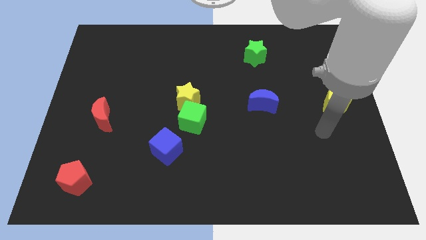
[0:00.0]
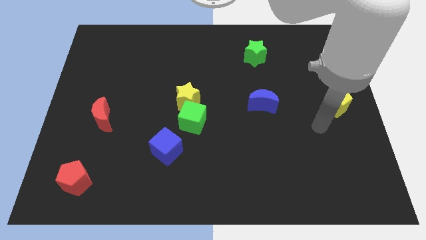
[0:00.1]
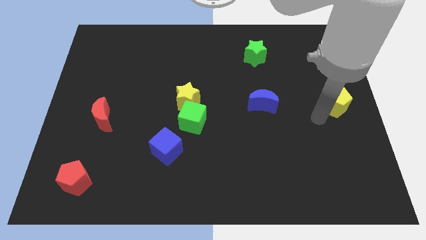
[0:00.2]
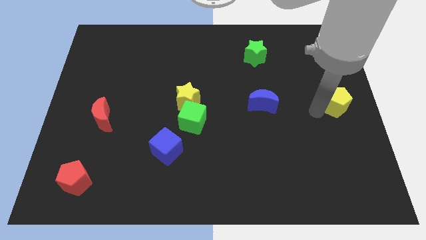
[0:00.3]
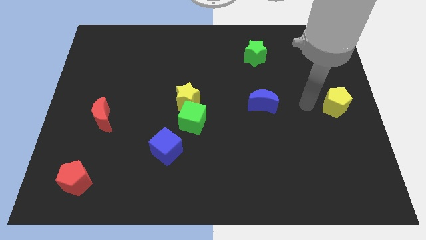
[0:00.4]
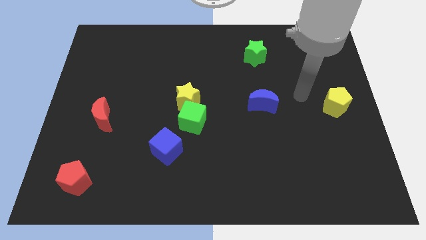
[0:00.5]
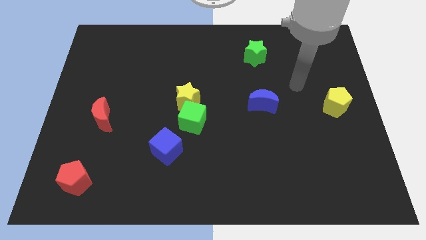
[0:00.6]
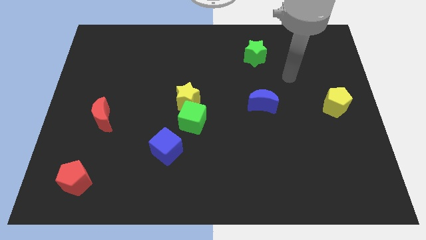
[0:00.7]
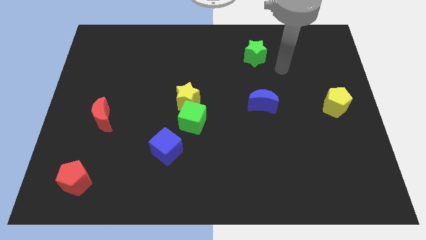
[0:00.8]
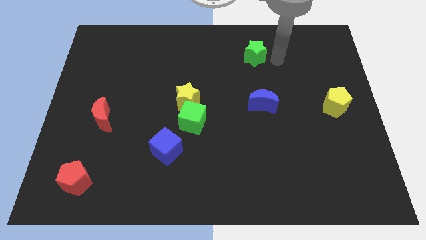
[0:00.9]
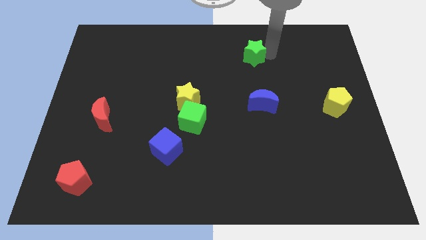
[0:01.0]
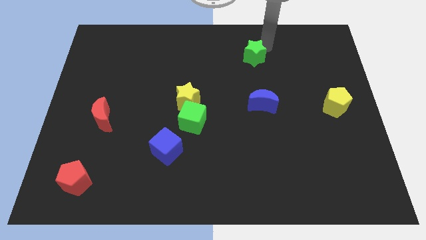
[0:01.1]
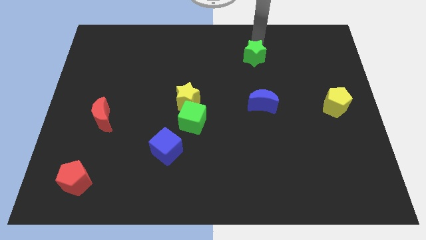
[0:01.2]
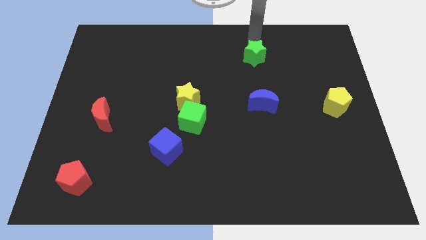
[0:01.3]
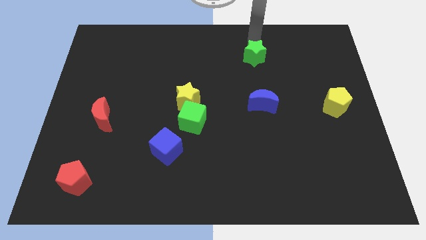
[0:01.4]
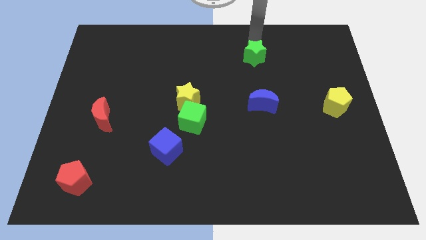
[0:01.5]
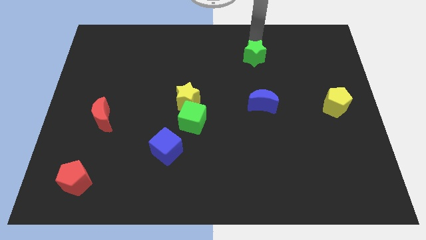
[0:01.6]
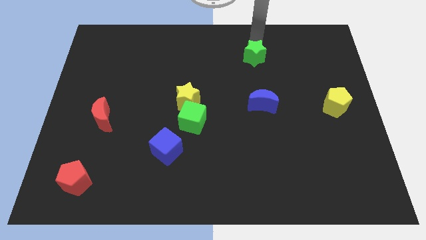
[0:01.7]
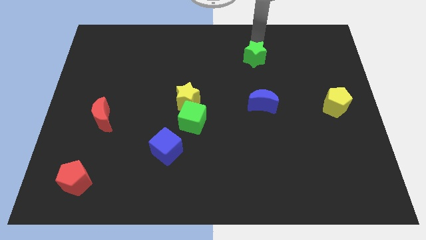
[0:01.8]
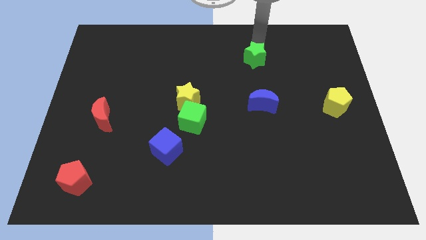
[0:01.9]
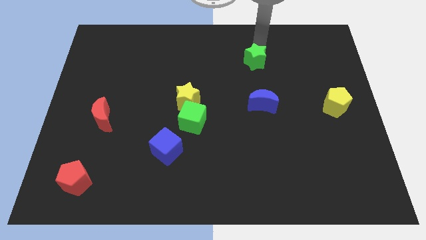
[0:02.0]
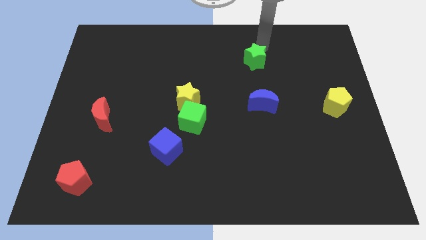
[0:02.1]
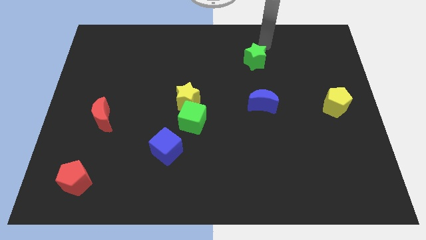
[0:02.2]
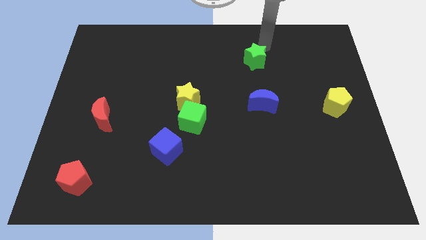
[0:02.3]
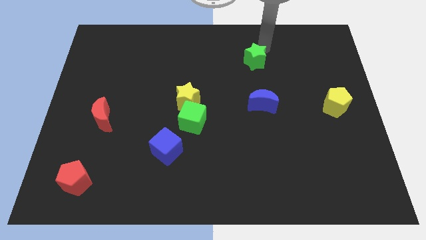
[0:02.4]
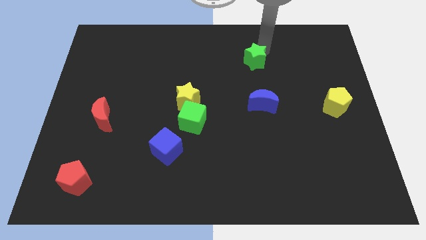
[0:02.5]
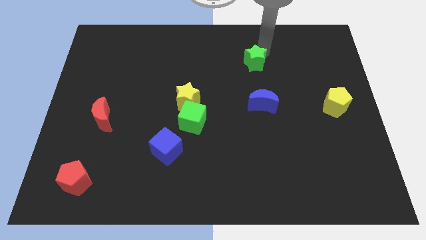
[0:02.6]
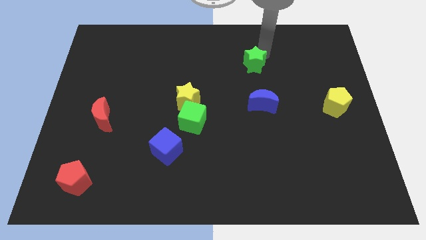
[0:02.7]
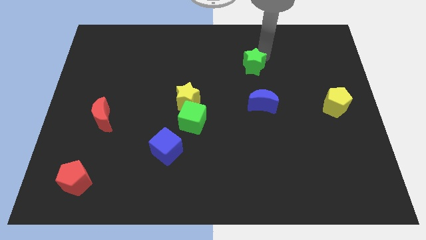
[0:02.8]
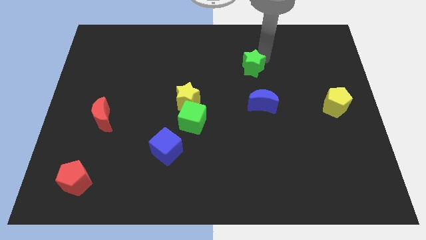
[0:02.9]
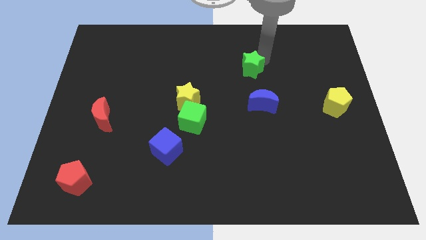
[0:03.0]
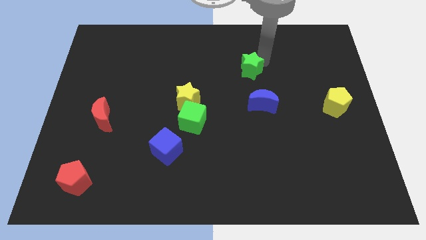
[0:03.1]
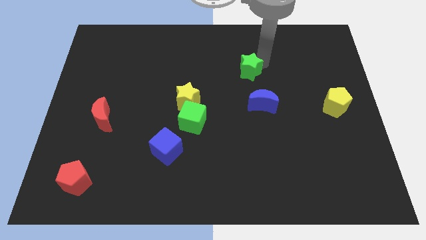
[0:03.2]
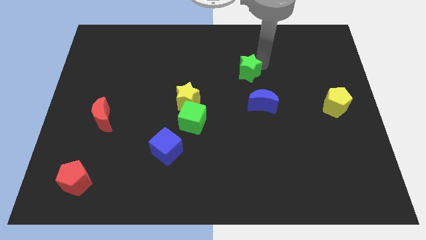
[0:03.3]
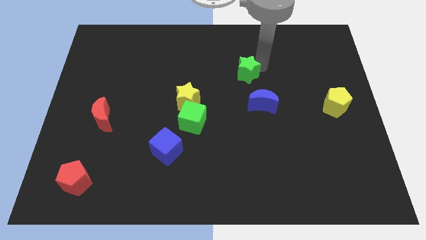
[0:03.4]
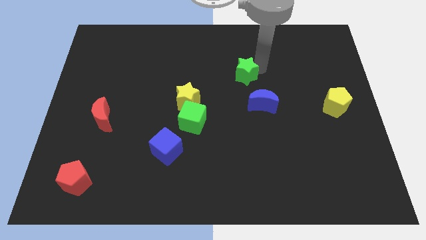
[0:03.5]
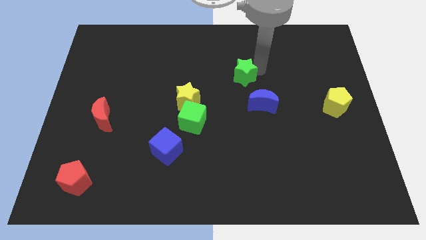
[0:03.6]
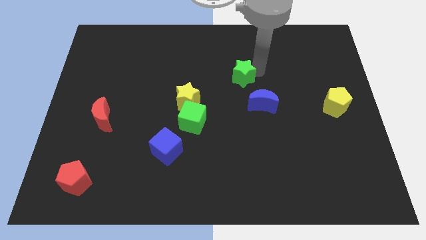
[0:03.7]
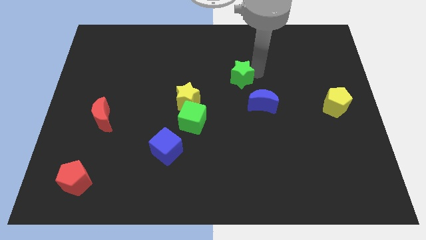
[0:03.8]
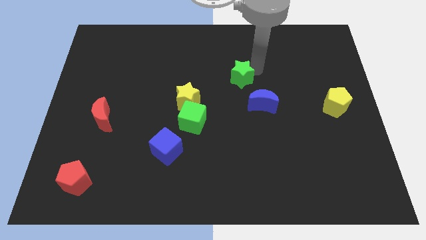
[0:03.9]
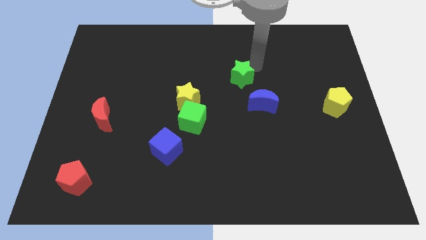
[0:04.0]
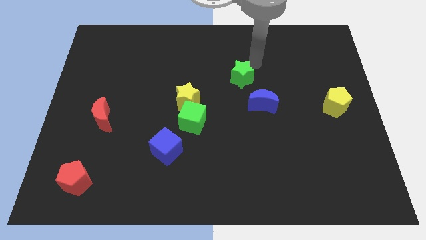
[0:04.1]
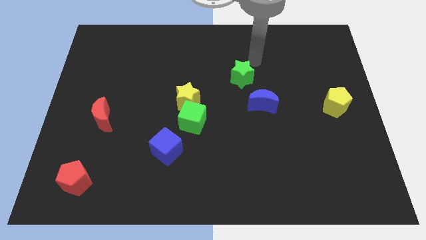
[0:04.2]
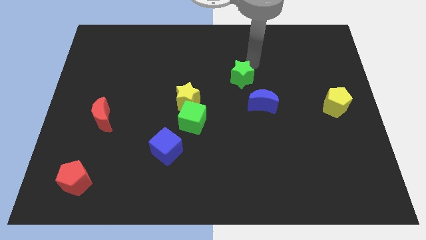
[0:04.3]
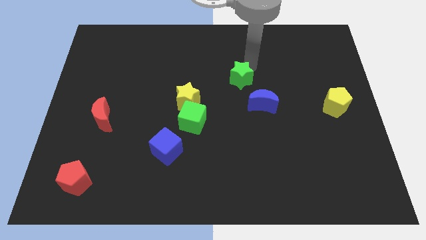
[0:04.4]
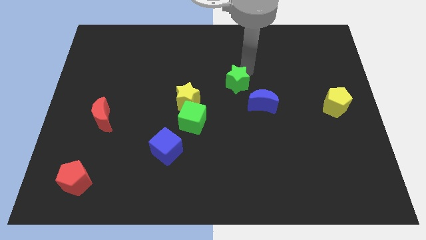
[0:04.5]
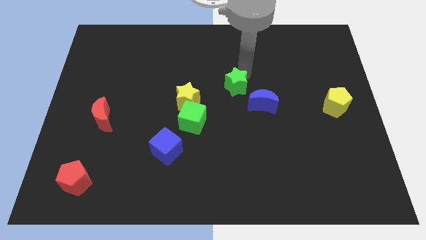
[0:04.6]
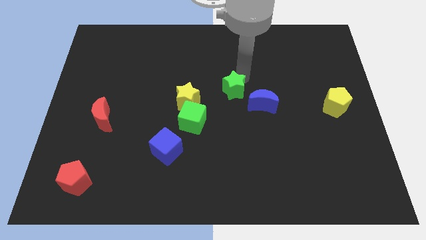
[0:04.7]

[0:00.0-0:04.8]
move the green star to the left of the blue moon

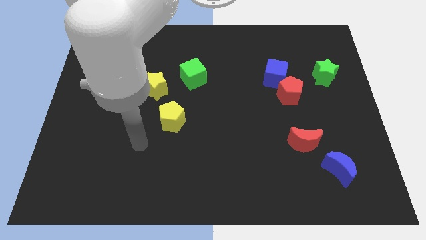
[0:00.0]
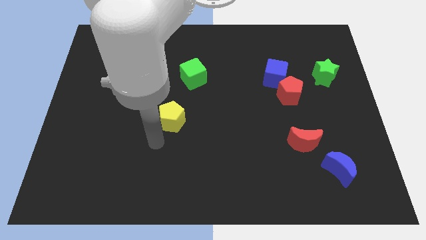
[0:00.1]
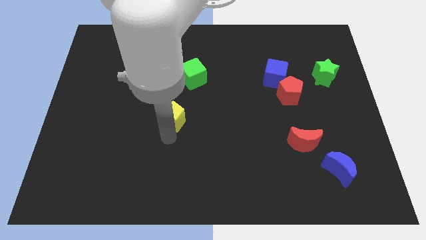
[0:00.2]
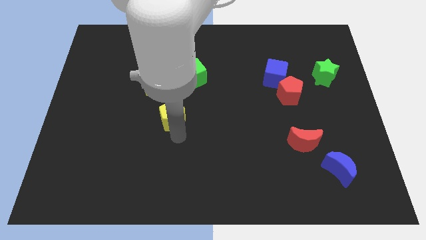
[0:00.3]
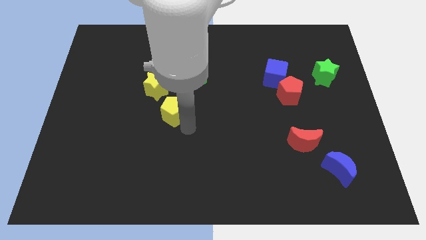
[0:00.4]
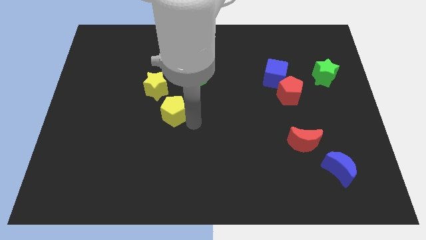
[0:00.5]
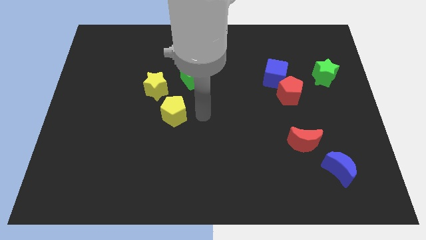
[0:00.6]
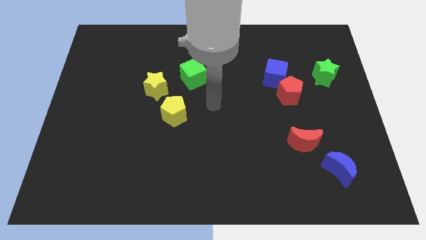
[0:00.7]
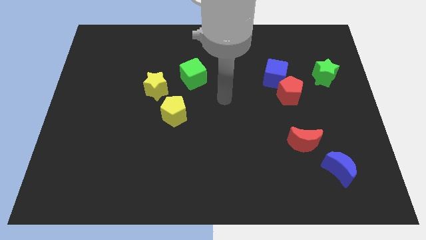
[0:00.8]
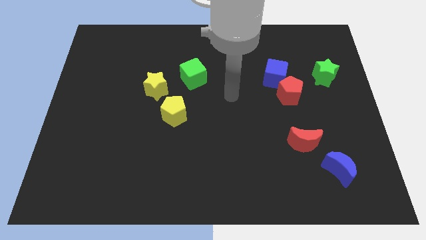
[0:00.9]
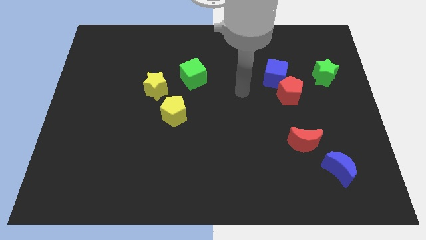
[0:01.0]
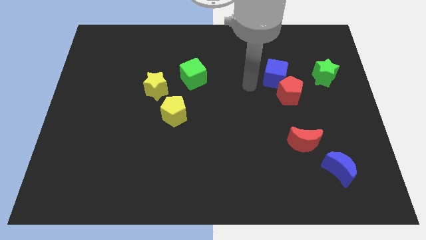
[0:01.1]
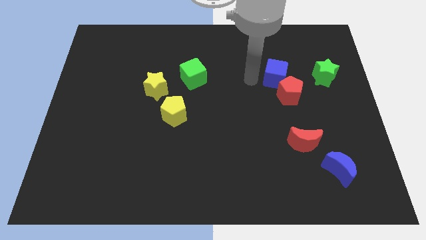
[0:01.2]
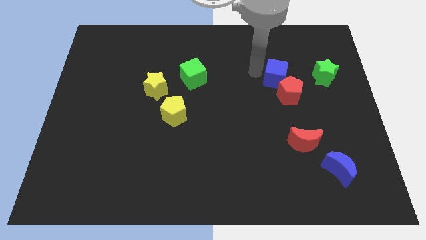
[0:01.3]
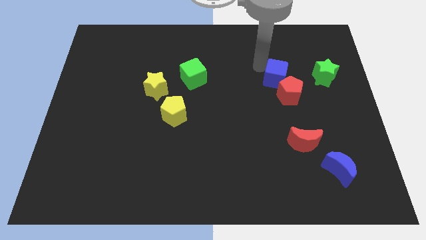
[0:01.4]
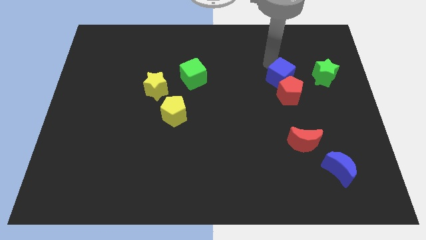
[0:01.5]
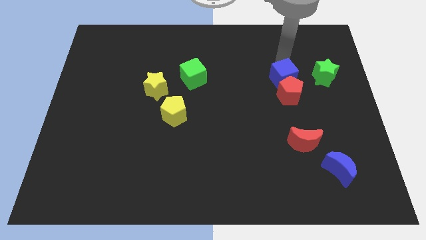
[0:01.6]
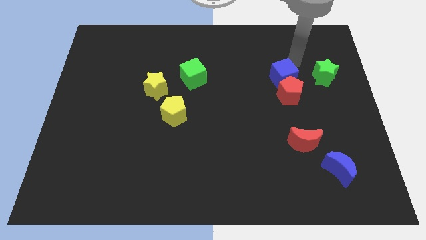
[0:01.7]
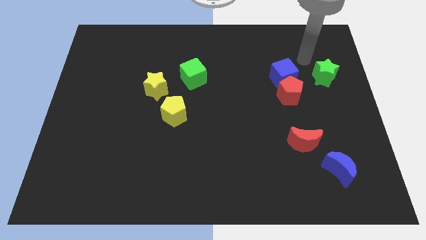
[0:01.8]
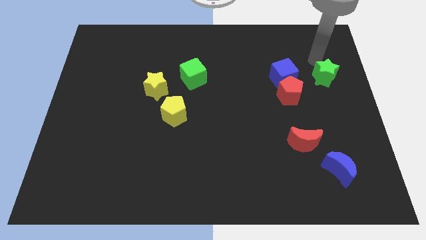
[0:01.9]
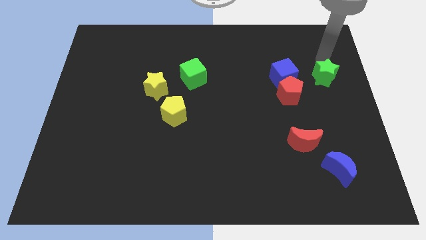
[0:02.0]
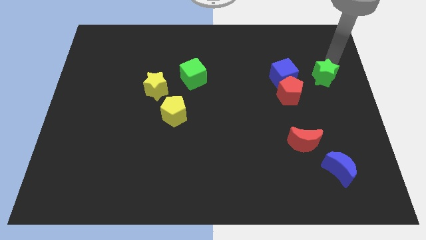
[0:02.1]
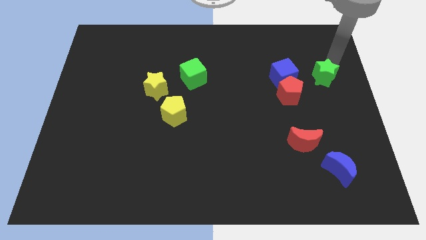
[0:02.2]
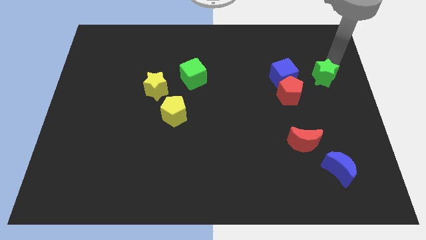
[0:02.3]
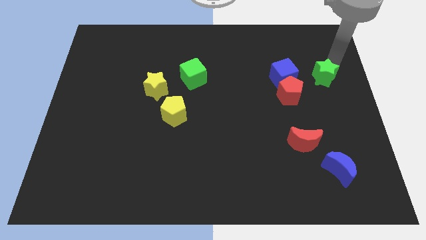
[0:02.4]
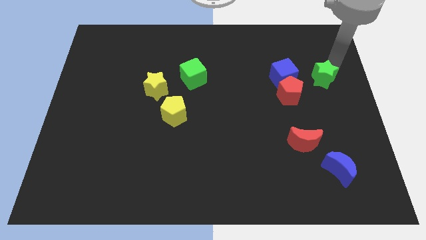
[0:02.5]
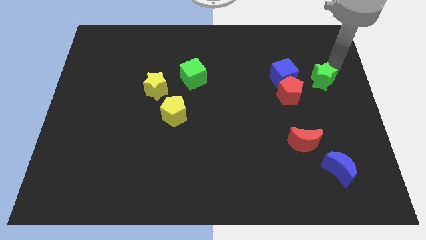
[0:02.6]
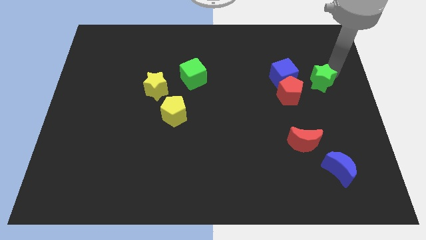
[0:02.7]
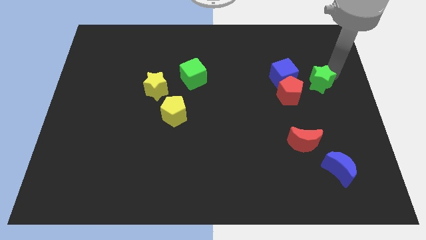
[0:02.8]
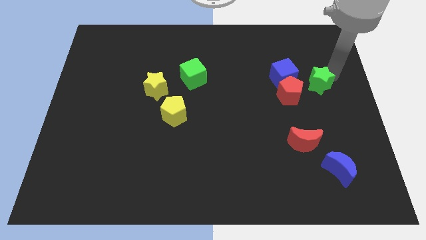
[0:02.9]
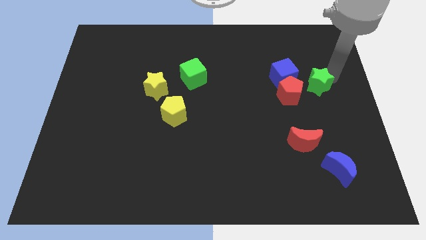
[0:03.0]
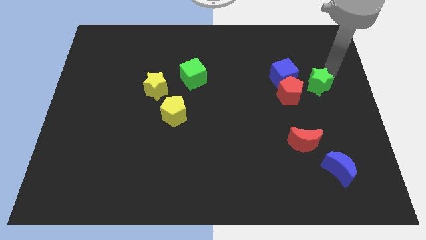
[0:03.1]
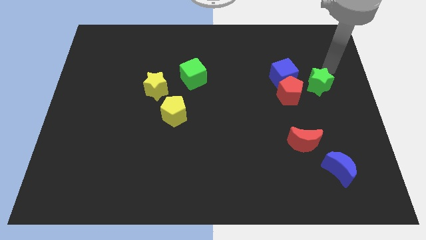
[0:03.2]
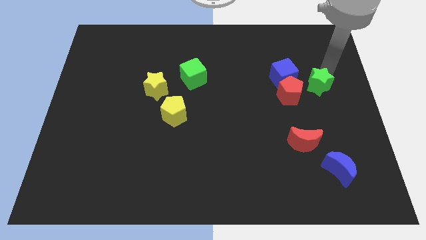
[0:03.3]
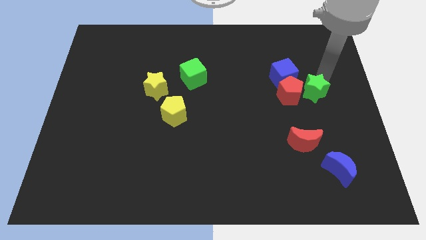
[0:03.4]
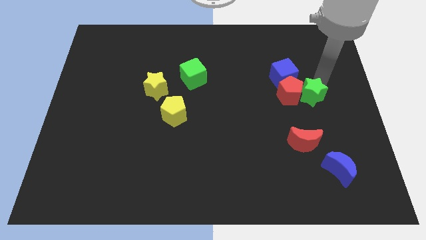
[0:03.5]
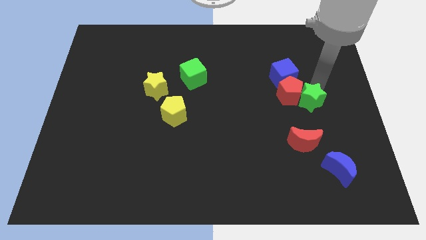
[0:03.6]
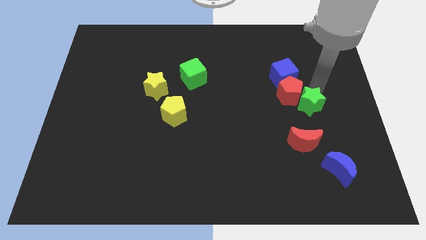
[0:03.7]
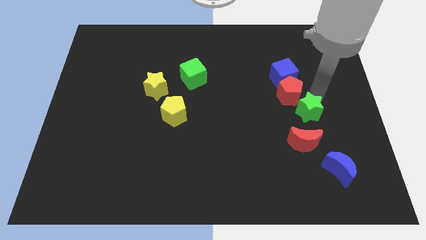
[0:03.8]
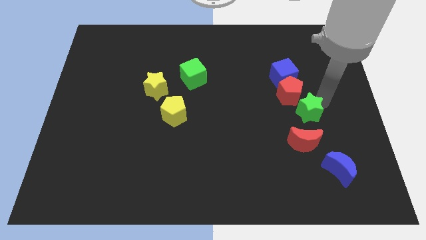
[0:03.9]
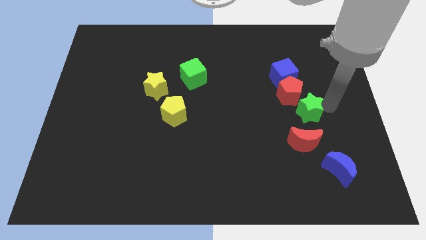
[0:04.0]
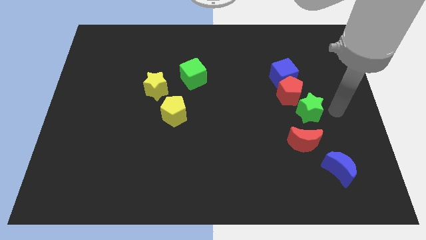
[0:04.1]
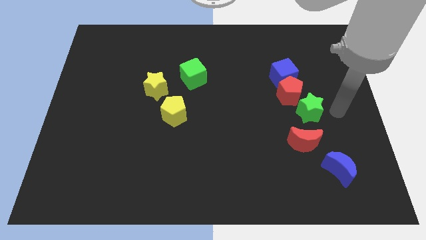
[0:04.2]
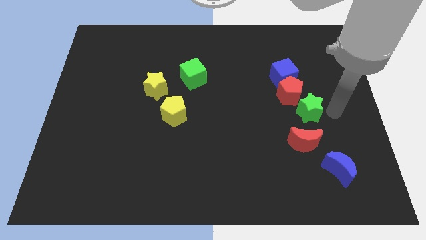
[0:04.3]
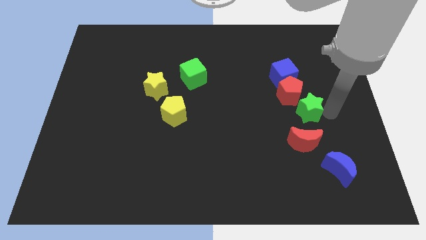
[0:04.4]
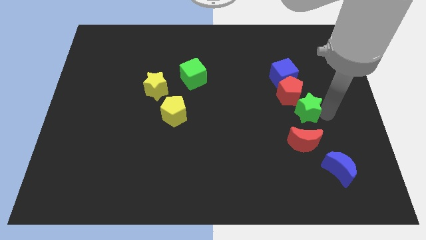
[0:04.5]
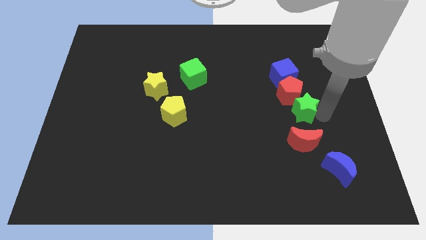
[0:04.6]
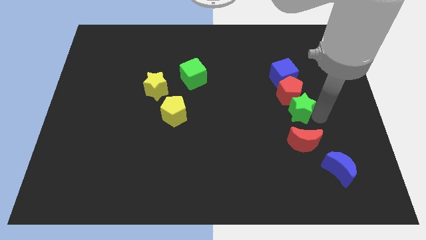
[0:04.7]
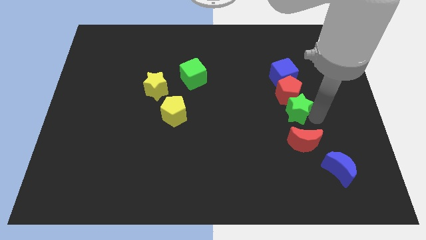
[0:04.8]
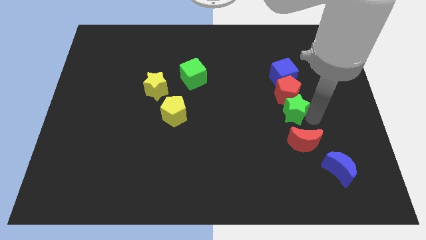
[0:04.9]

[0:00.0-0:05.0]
slide the green star to the bottom left side of the red pentagon
